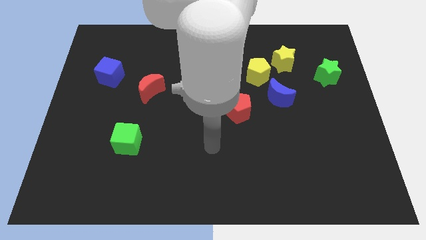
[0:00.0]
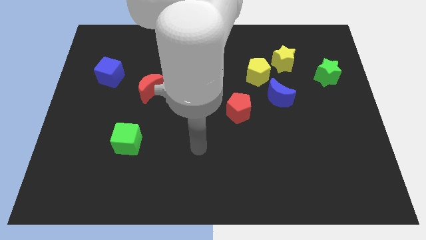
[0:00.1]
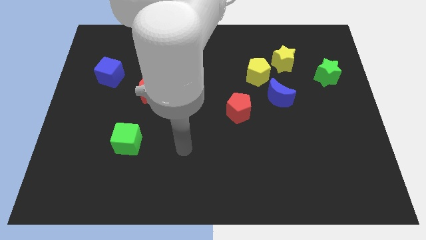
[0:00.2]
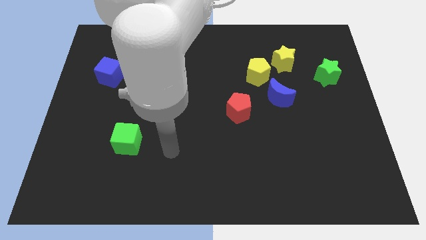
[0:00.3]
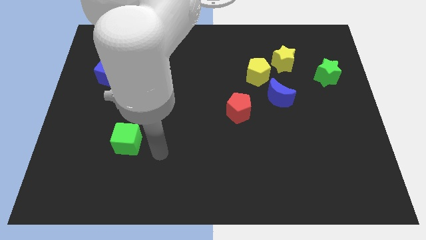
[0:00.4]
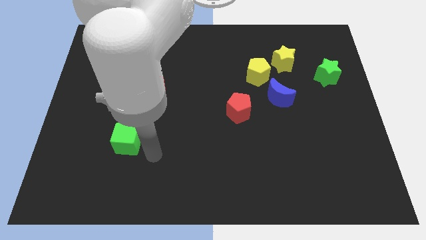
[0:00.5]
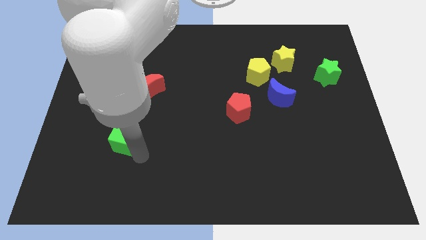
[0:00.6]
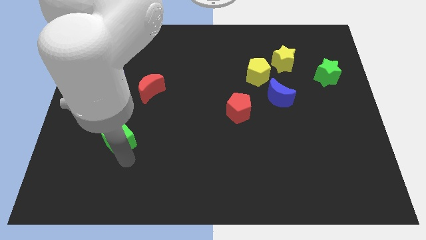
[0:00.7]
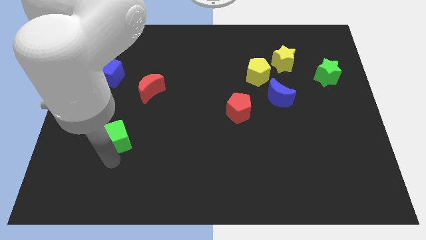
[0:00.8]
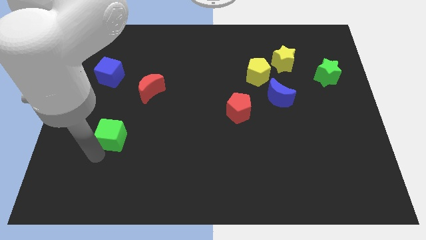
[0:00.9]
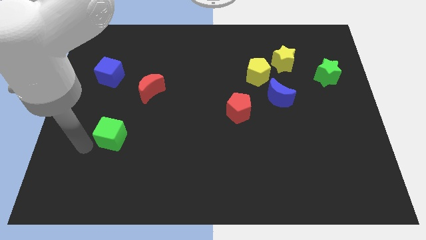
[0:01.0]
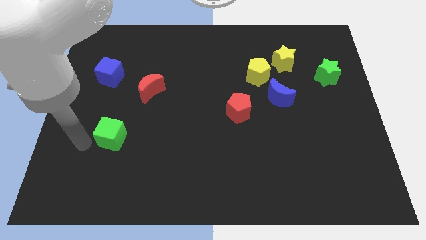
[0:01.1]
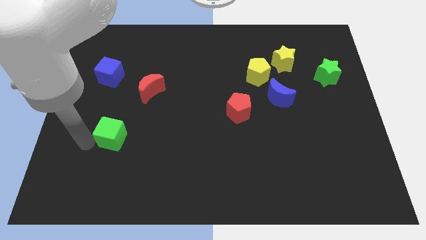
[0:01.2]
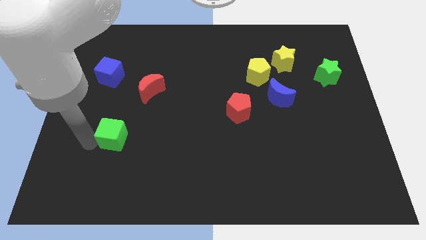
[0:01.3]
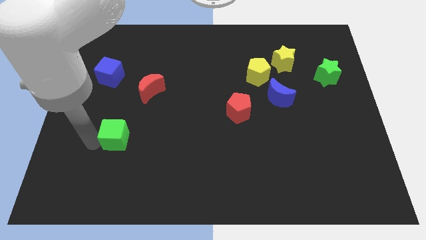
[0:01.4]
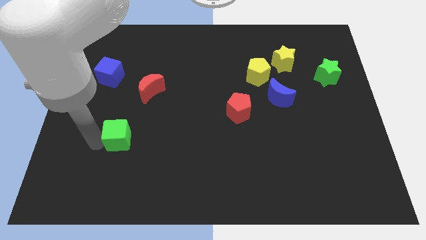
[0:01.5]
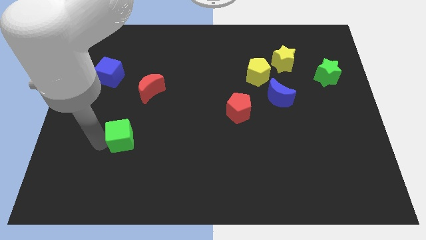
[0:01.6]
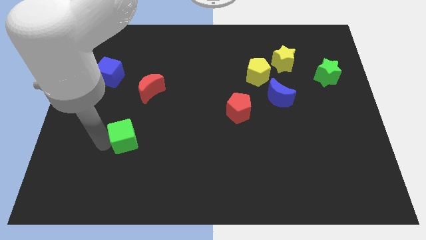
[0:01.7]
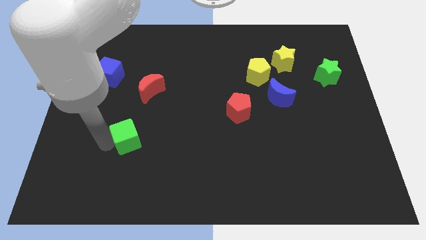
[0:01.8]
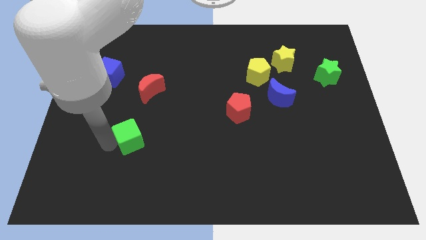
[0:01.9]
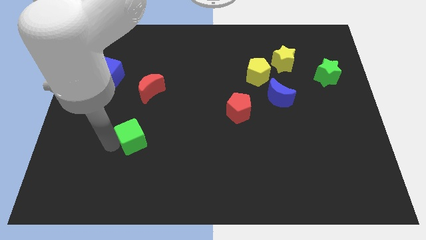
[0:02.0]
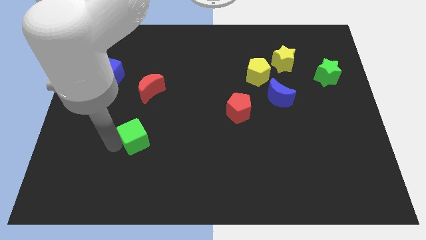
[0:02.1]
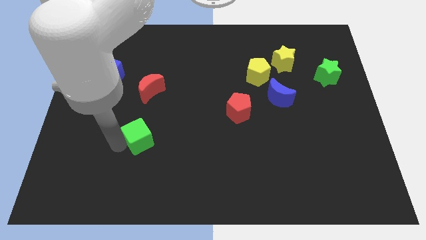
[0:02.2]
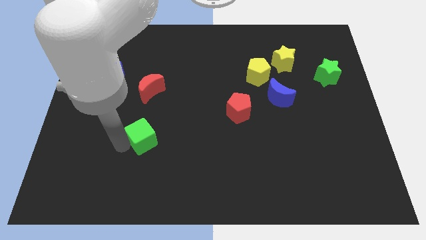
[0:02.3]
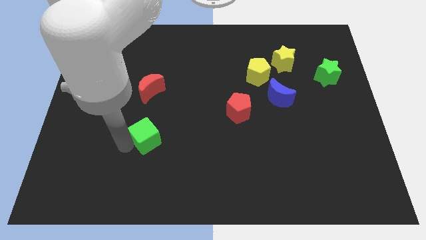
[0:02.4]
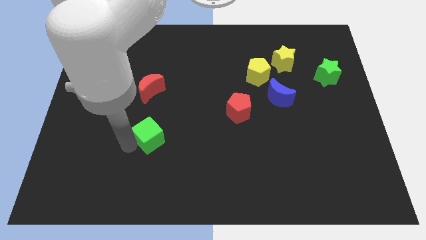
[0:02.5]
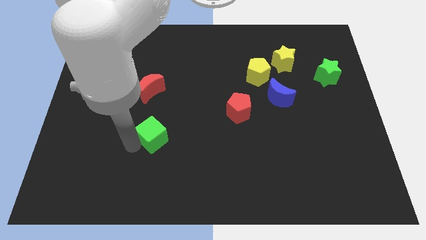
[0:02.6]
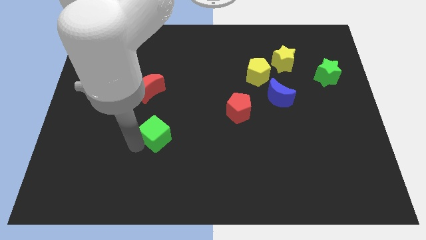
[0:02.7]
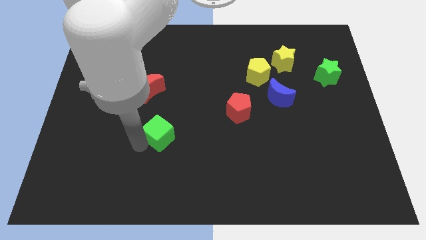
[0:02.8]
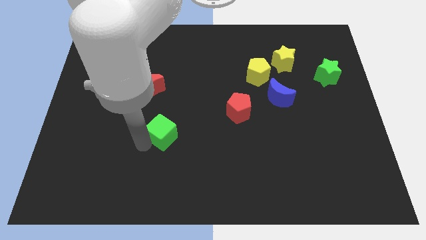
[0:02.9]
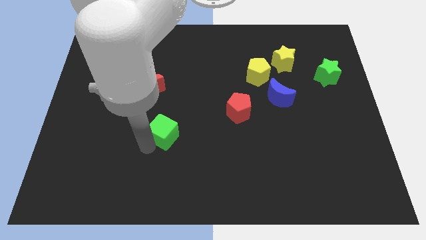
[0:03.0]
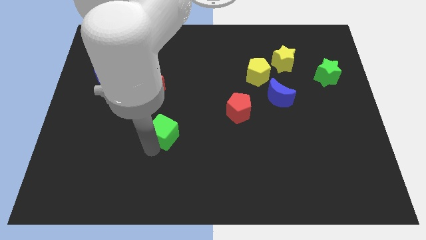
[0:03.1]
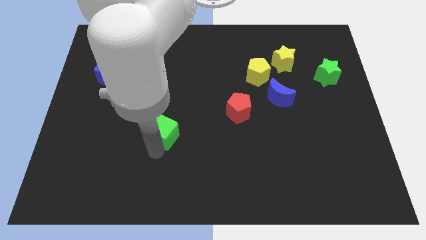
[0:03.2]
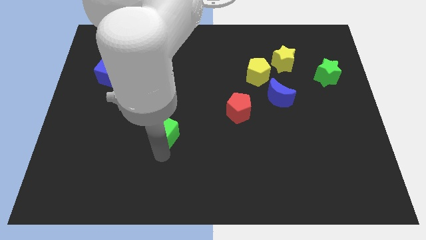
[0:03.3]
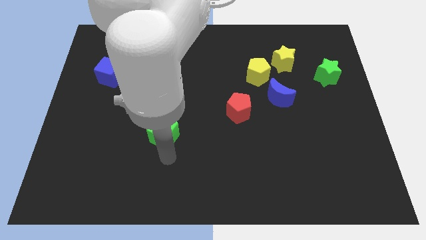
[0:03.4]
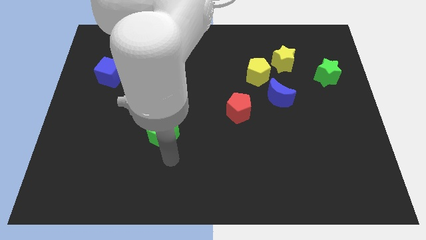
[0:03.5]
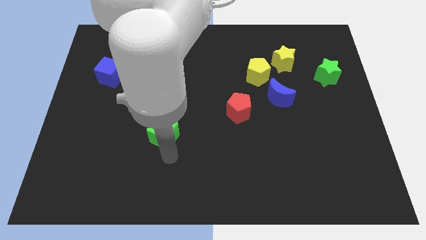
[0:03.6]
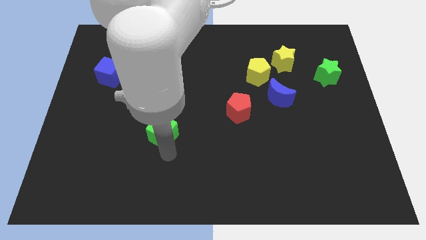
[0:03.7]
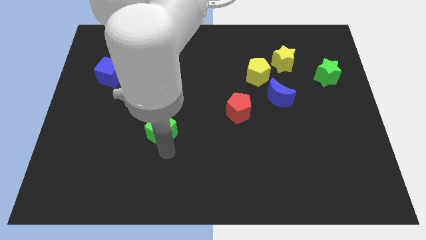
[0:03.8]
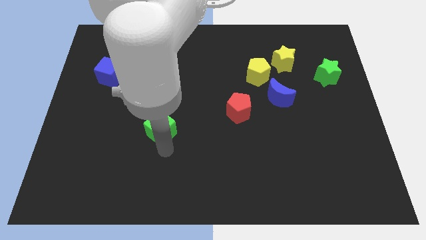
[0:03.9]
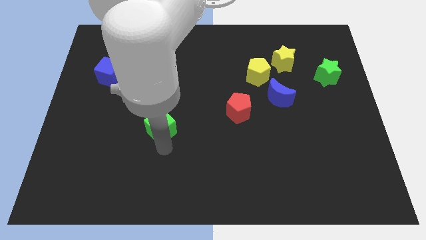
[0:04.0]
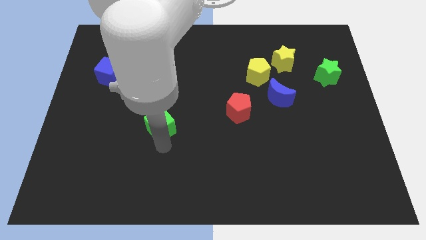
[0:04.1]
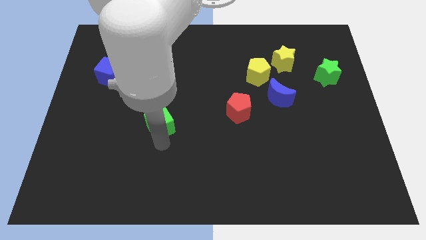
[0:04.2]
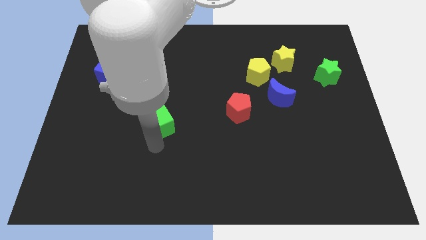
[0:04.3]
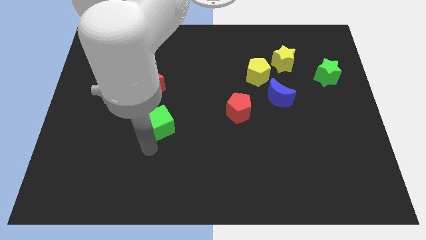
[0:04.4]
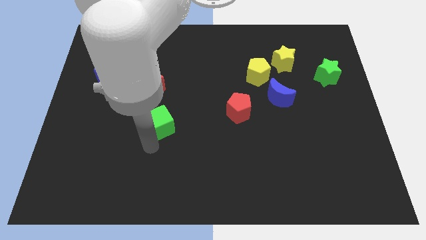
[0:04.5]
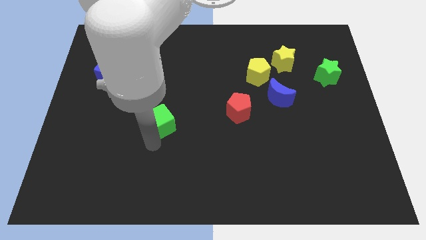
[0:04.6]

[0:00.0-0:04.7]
slide the green cube diagonally down and to the right of the red moon

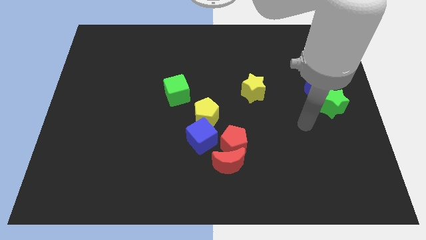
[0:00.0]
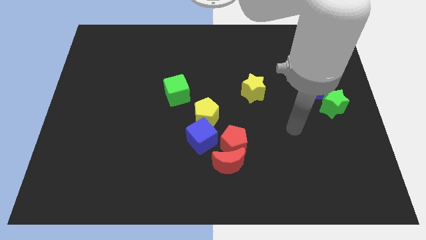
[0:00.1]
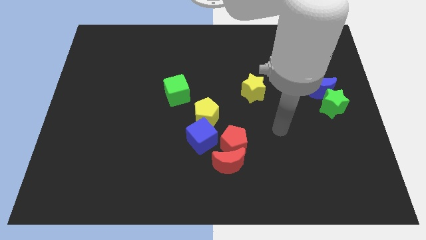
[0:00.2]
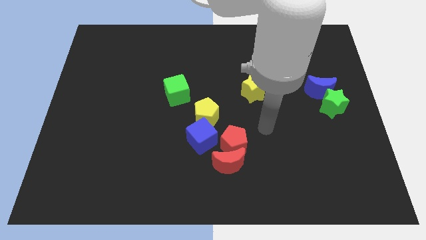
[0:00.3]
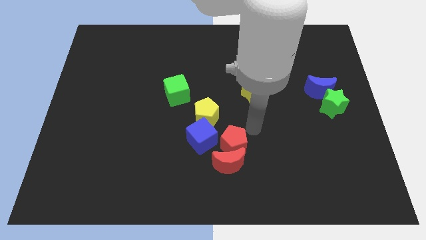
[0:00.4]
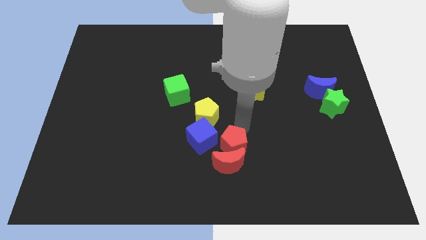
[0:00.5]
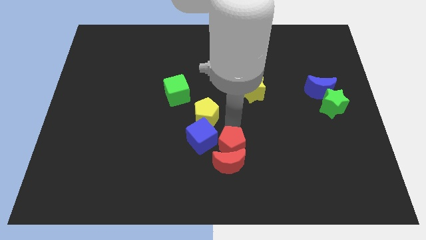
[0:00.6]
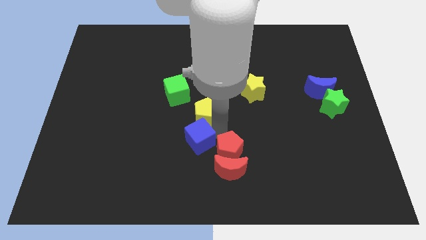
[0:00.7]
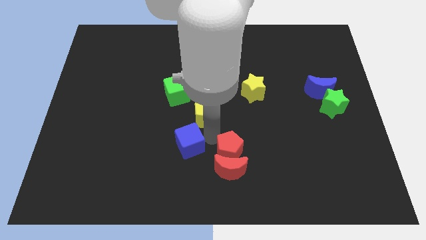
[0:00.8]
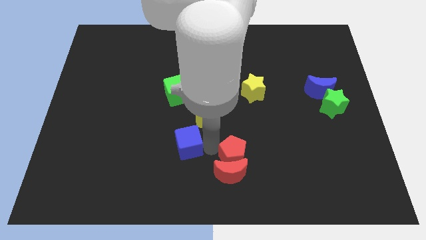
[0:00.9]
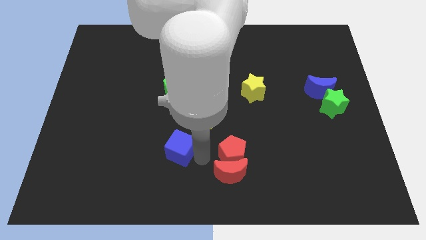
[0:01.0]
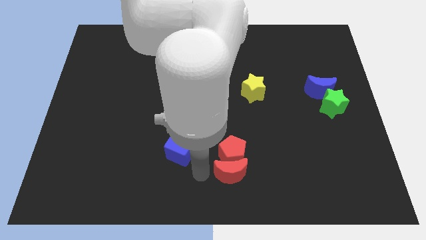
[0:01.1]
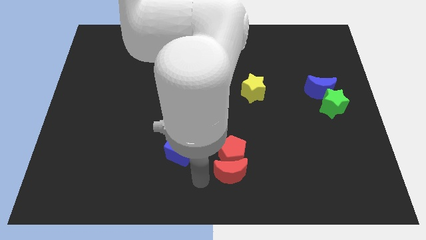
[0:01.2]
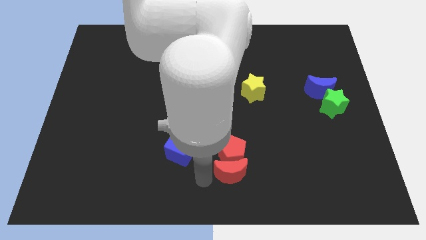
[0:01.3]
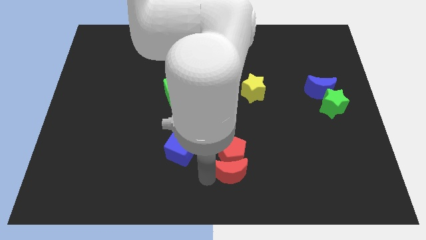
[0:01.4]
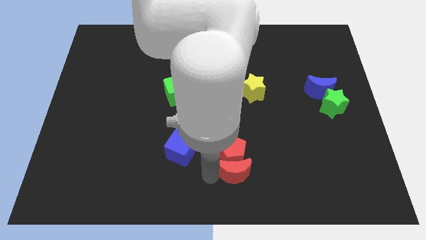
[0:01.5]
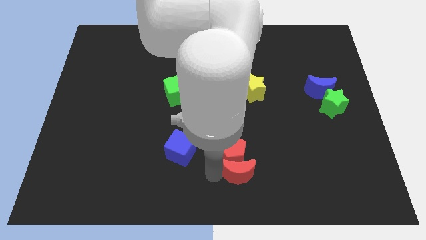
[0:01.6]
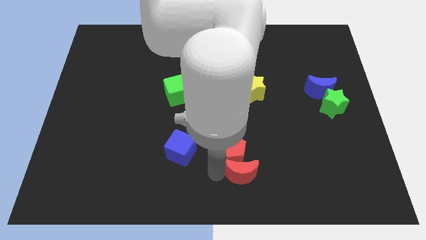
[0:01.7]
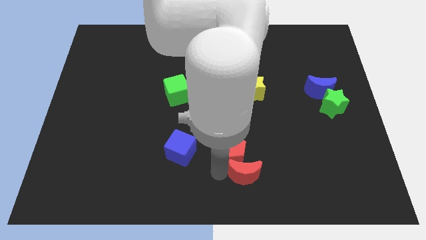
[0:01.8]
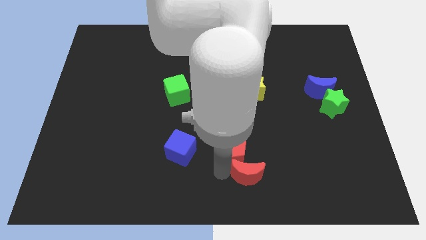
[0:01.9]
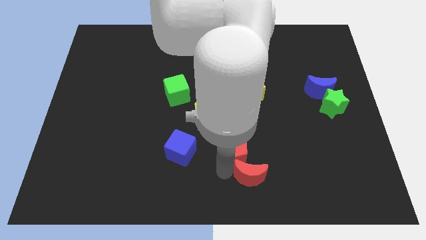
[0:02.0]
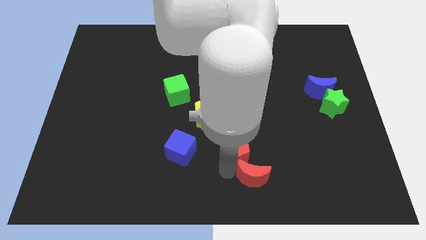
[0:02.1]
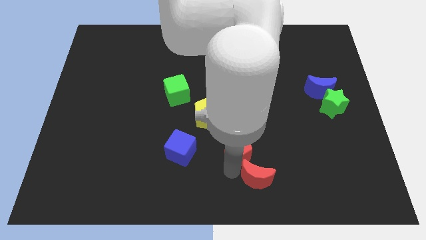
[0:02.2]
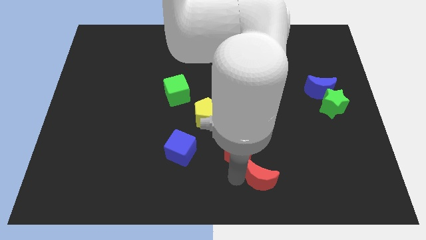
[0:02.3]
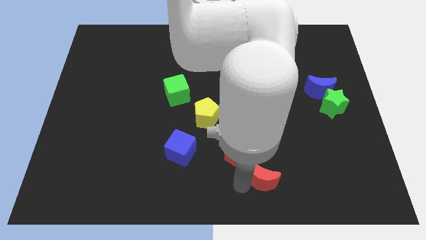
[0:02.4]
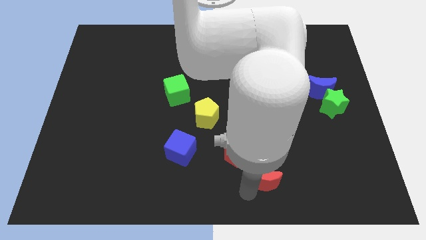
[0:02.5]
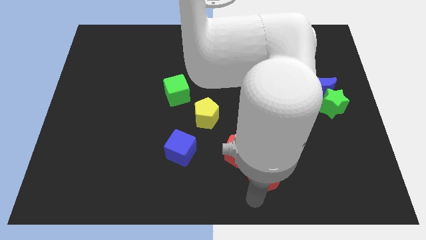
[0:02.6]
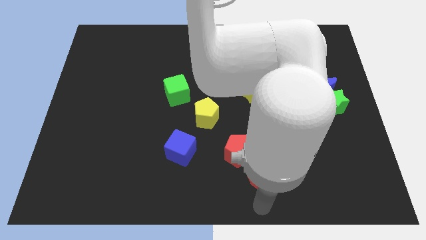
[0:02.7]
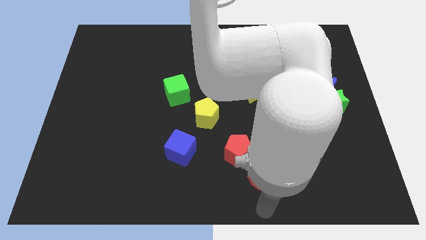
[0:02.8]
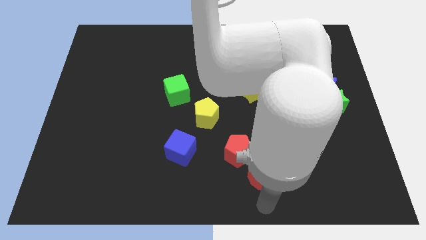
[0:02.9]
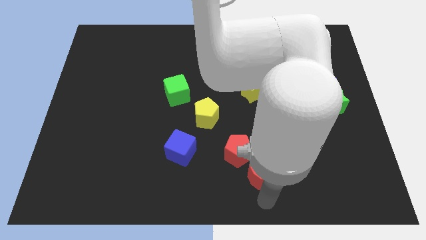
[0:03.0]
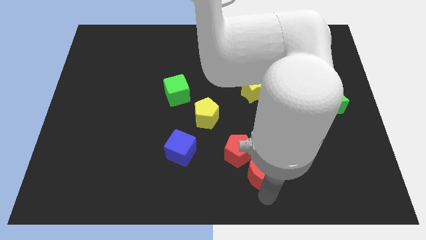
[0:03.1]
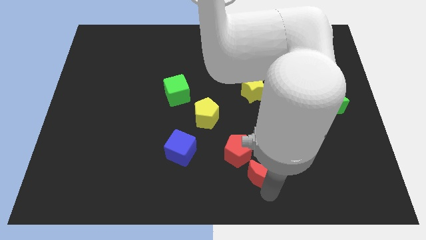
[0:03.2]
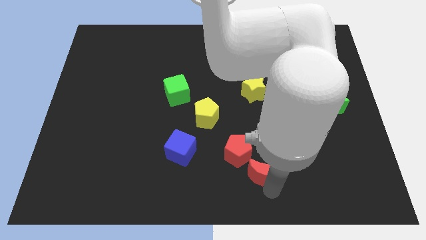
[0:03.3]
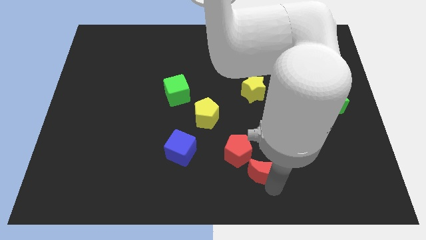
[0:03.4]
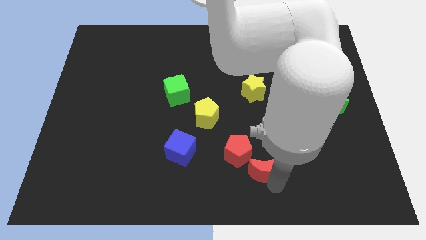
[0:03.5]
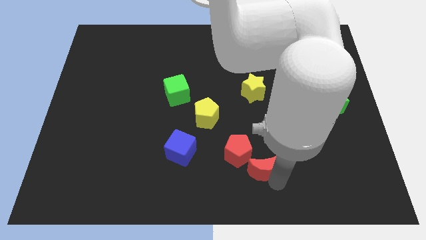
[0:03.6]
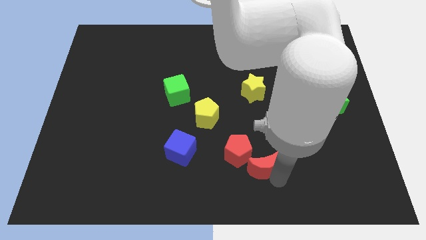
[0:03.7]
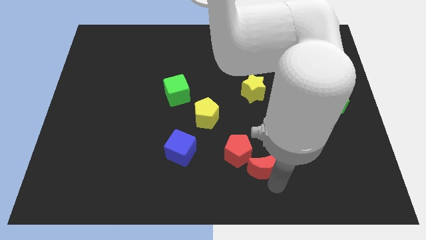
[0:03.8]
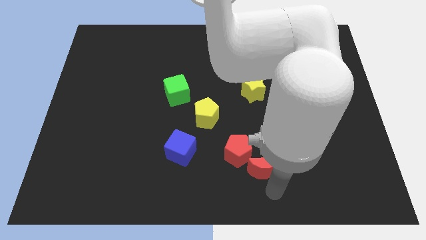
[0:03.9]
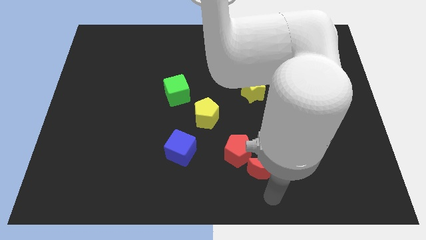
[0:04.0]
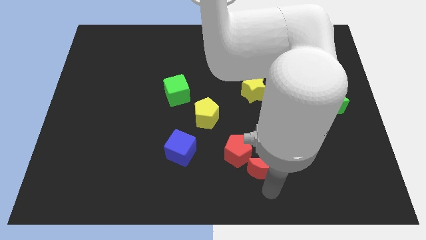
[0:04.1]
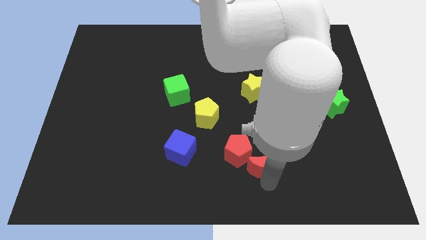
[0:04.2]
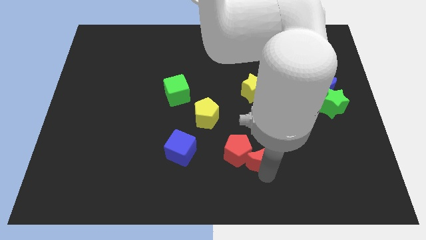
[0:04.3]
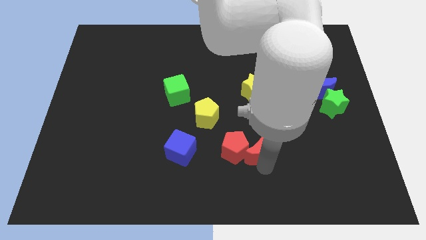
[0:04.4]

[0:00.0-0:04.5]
move the red moon diagonally up and to the right of the red pentagon
